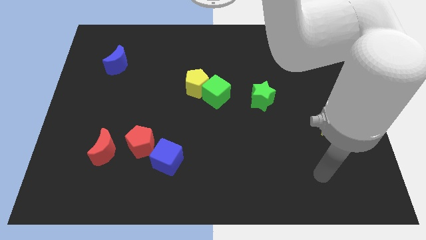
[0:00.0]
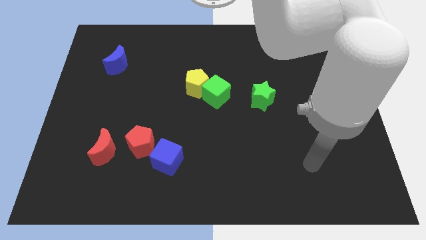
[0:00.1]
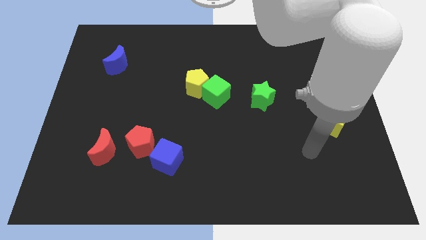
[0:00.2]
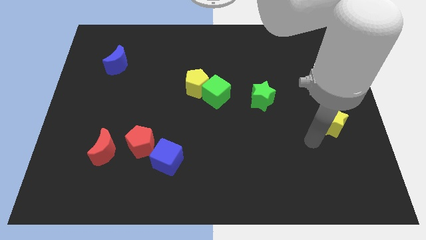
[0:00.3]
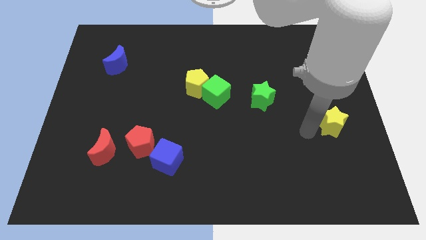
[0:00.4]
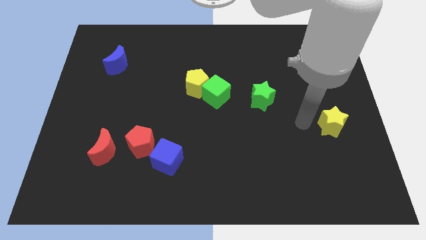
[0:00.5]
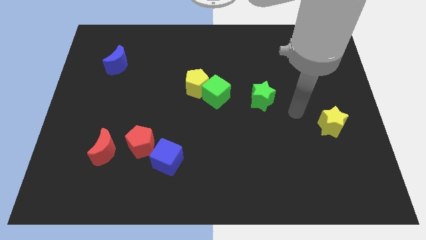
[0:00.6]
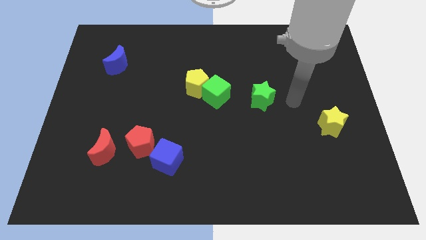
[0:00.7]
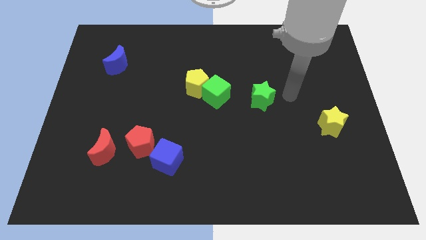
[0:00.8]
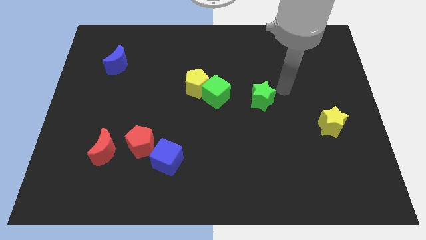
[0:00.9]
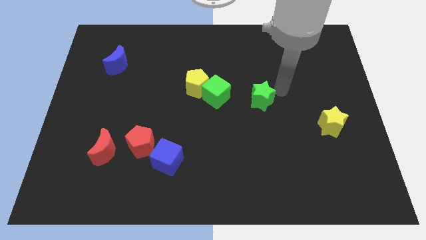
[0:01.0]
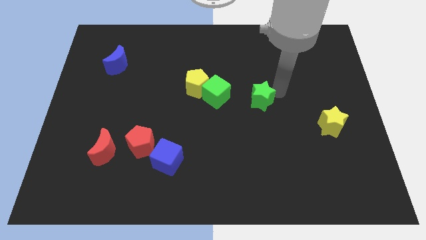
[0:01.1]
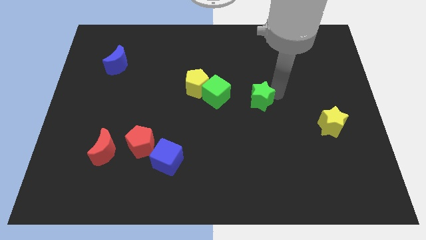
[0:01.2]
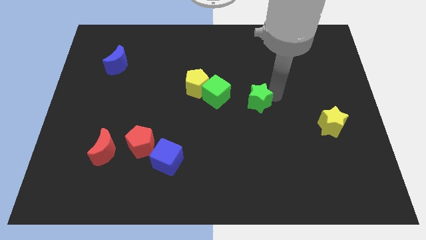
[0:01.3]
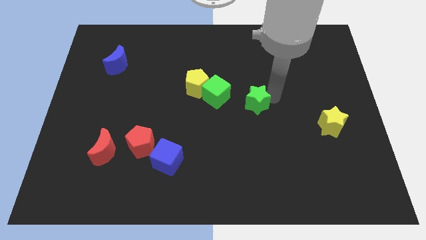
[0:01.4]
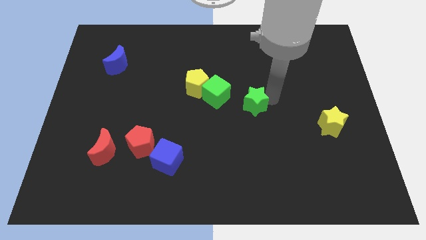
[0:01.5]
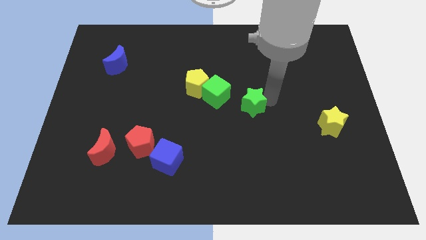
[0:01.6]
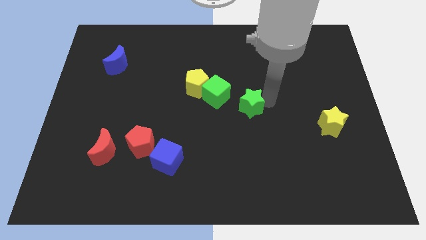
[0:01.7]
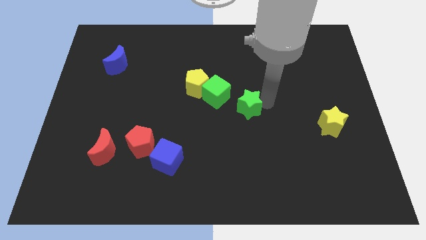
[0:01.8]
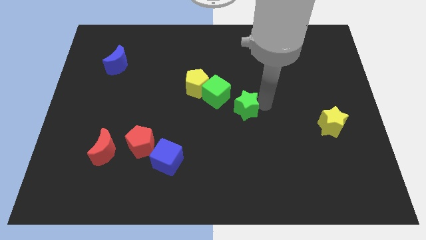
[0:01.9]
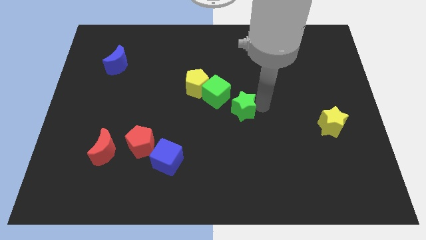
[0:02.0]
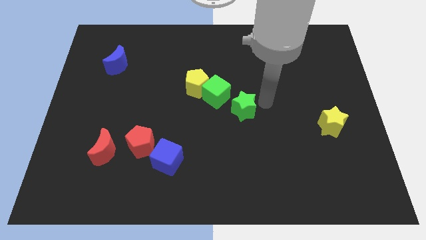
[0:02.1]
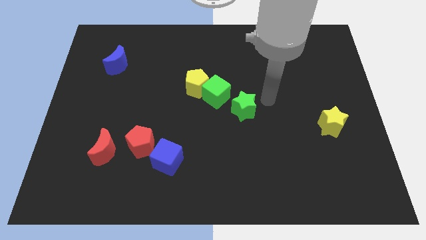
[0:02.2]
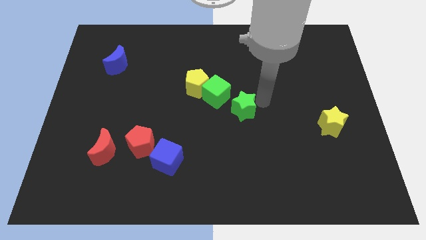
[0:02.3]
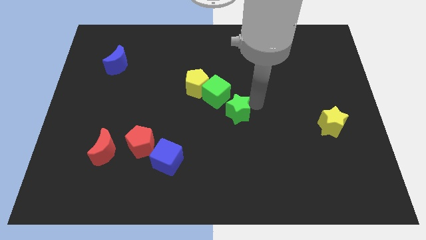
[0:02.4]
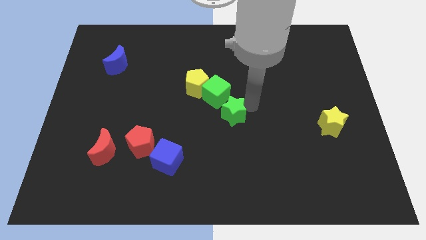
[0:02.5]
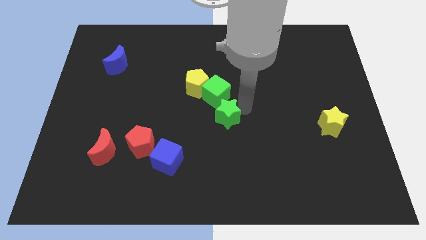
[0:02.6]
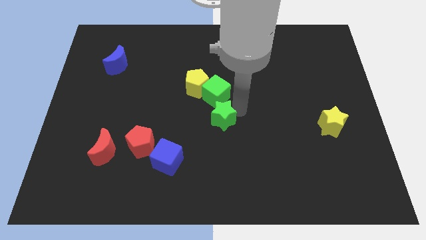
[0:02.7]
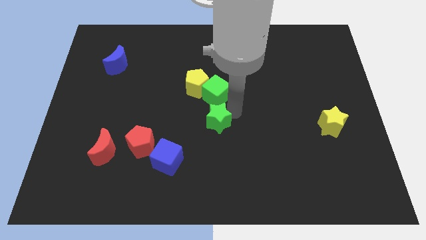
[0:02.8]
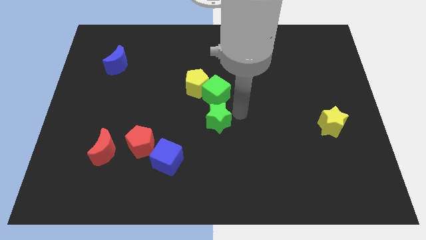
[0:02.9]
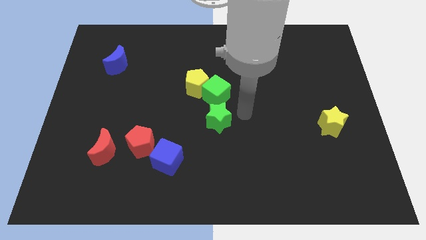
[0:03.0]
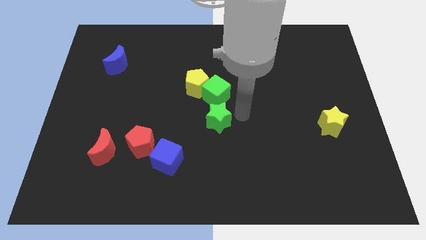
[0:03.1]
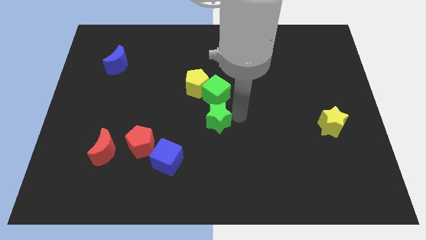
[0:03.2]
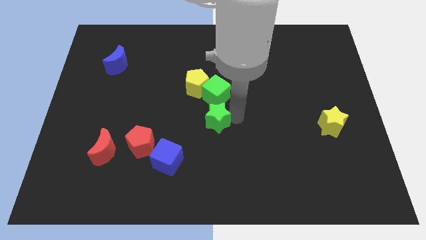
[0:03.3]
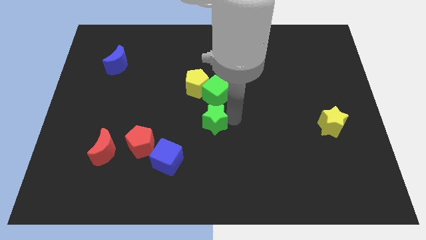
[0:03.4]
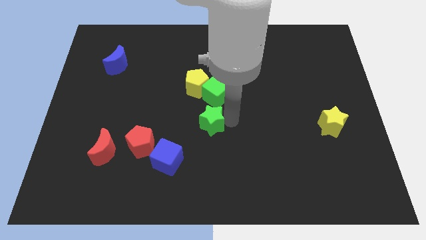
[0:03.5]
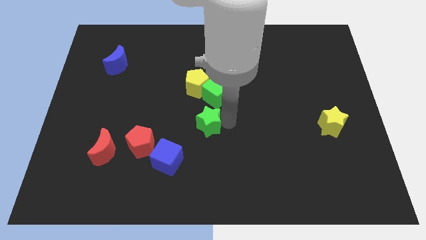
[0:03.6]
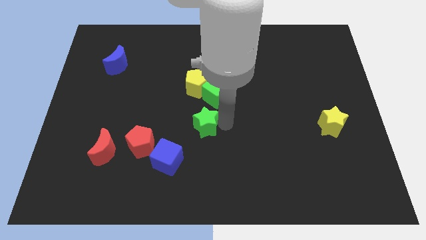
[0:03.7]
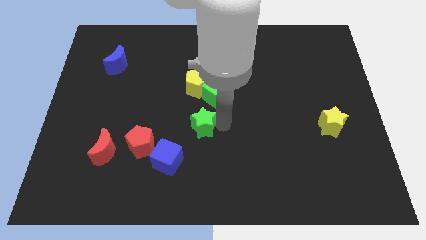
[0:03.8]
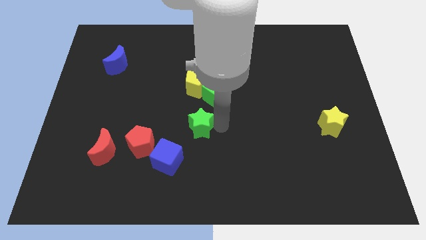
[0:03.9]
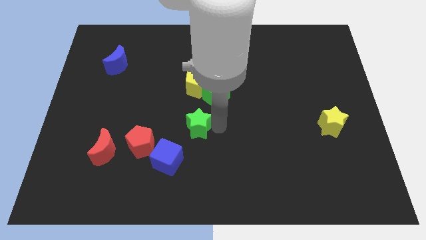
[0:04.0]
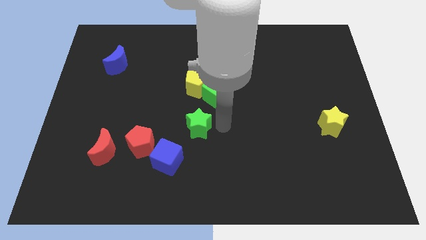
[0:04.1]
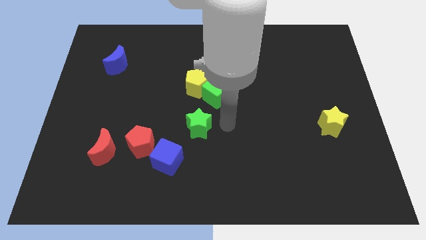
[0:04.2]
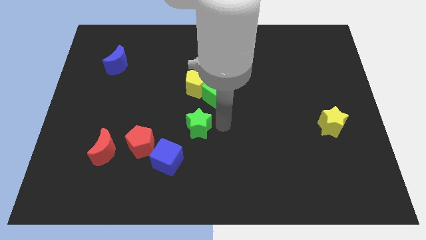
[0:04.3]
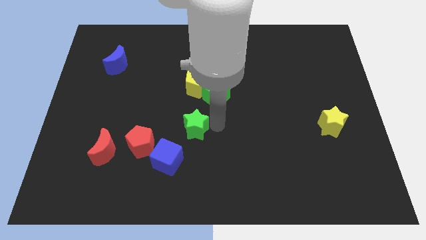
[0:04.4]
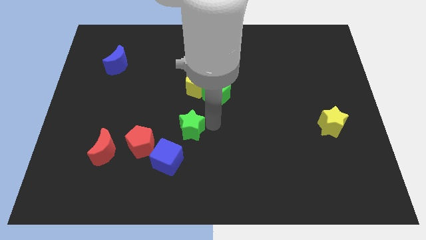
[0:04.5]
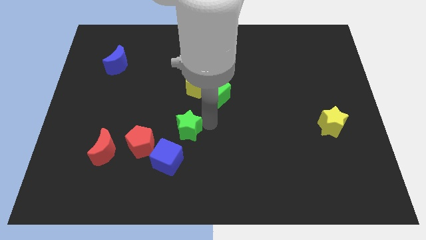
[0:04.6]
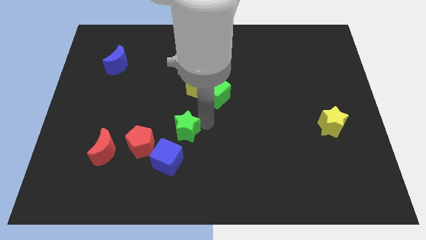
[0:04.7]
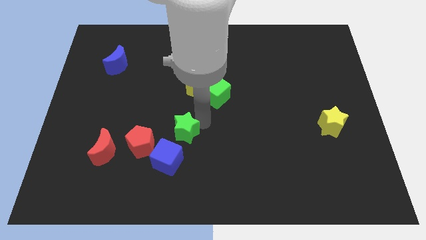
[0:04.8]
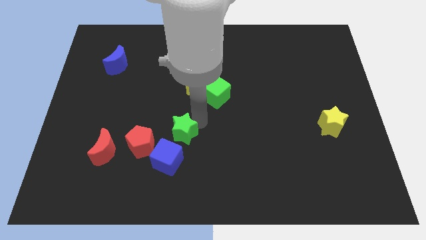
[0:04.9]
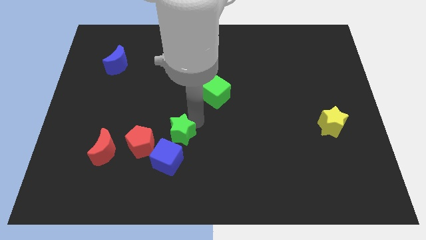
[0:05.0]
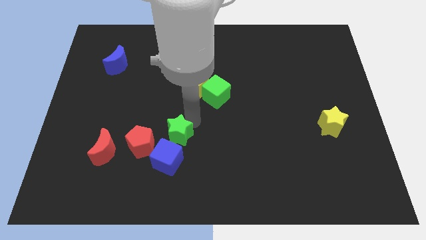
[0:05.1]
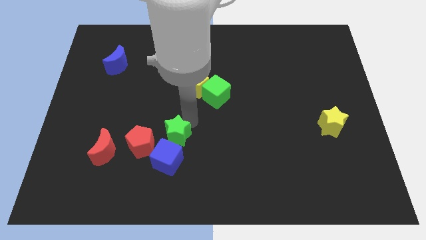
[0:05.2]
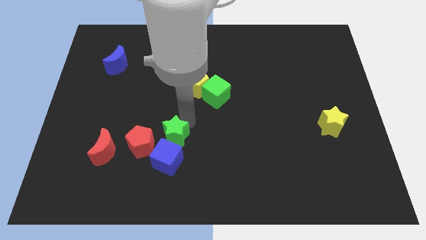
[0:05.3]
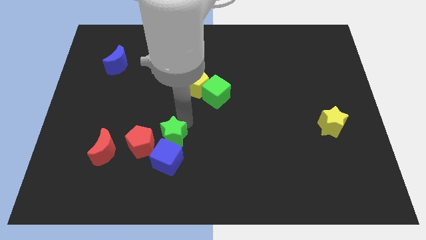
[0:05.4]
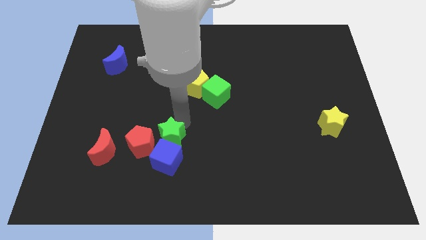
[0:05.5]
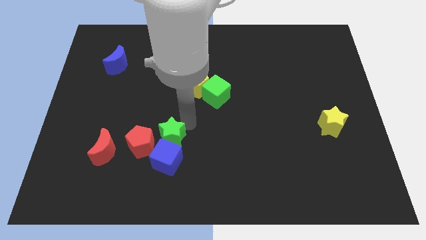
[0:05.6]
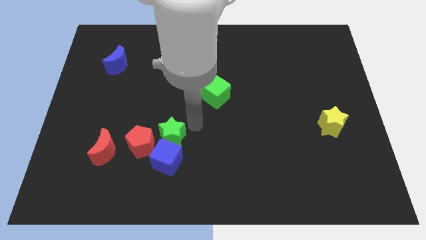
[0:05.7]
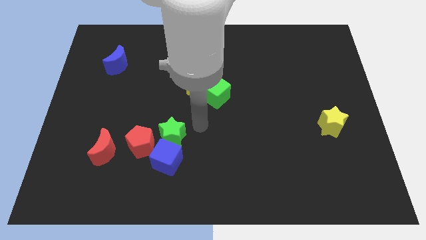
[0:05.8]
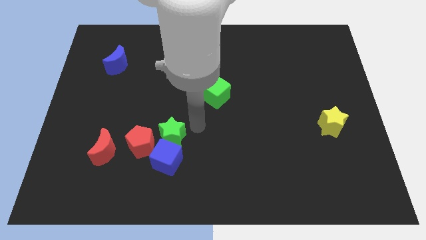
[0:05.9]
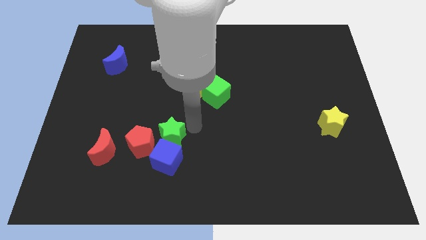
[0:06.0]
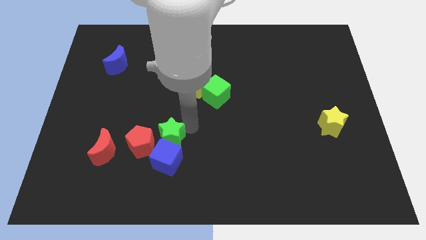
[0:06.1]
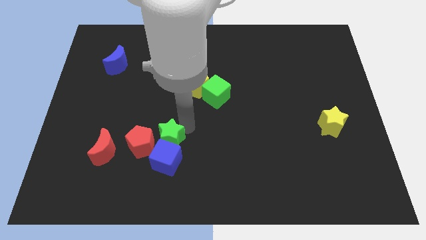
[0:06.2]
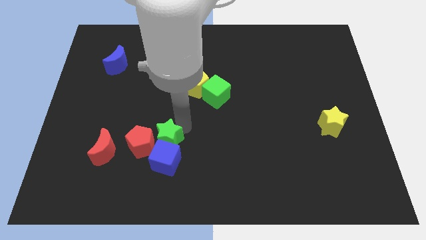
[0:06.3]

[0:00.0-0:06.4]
move the green star towards the red pentagon

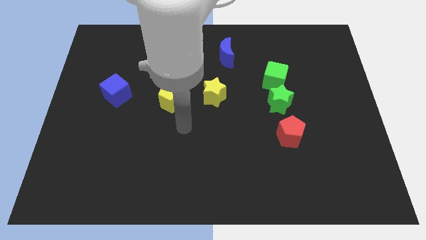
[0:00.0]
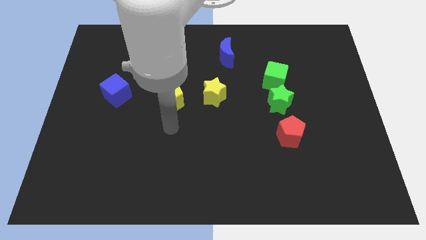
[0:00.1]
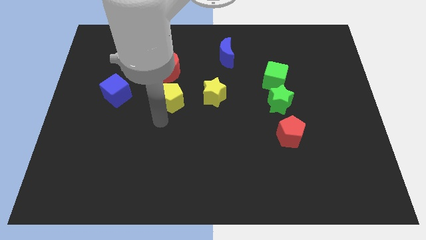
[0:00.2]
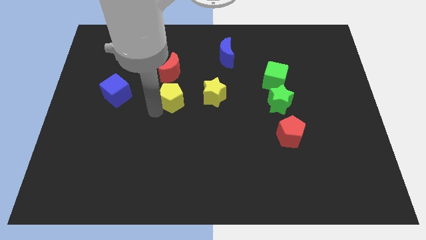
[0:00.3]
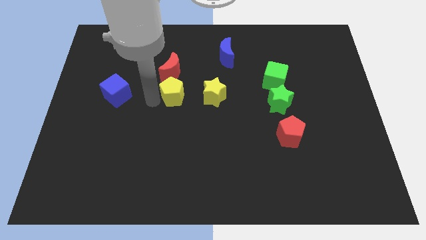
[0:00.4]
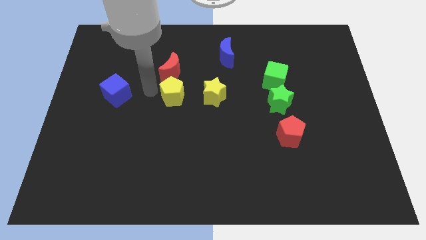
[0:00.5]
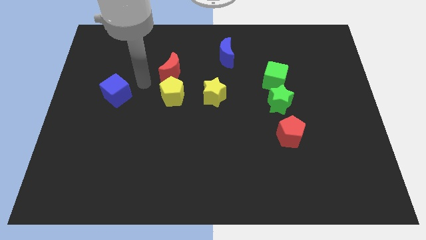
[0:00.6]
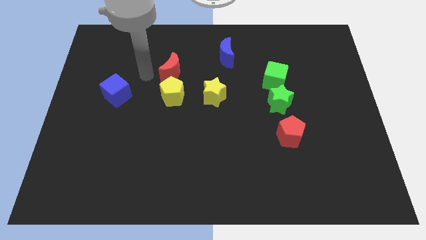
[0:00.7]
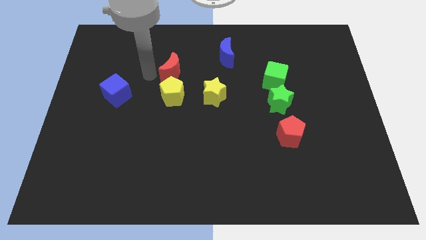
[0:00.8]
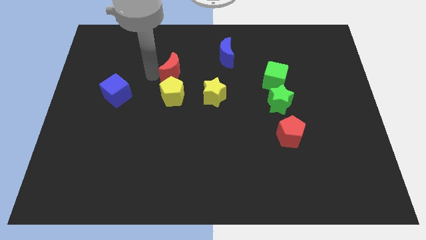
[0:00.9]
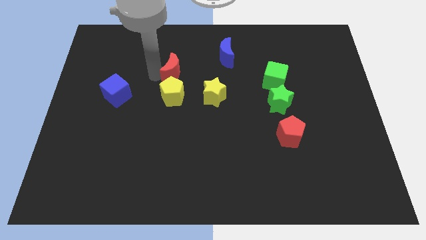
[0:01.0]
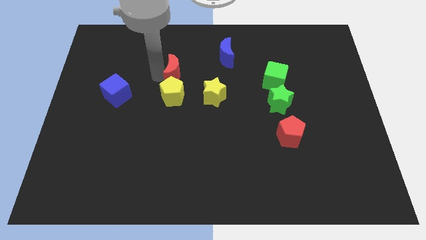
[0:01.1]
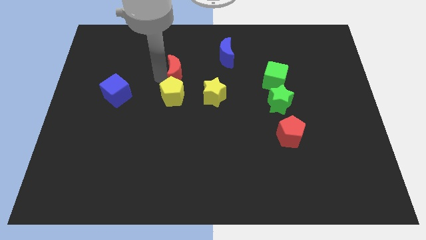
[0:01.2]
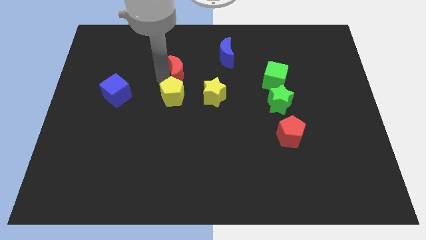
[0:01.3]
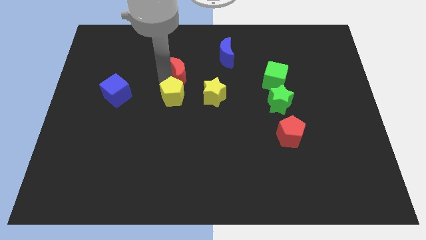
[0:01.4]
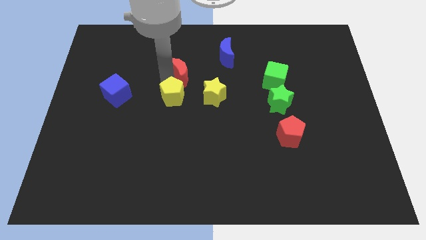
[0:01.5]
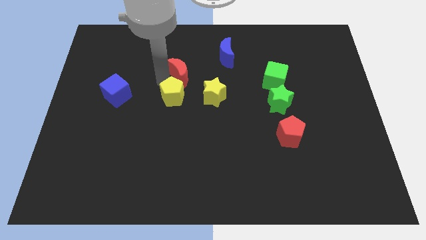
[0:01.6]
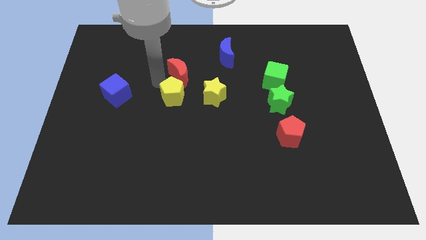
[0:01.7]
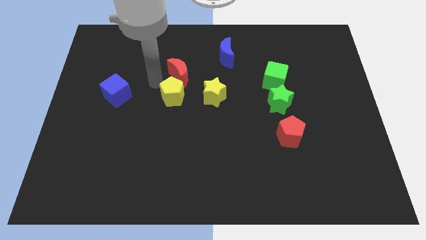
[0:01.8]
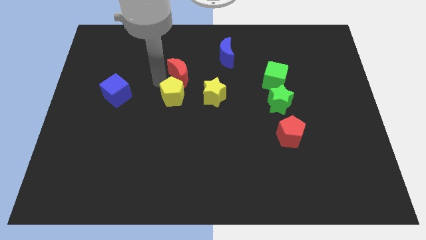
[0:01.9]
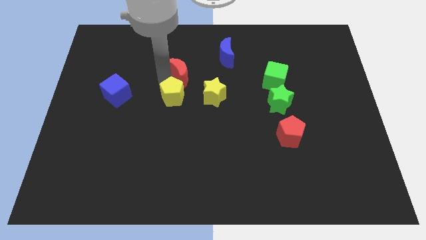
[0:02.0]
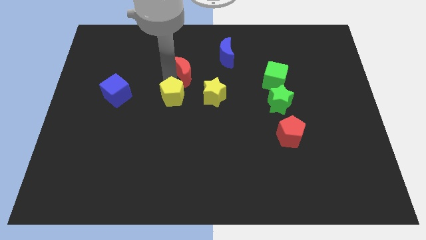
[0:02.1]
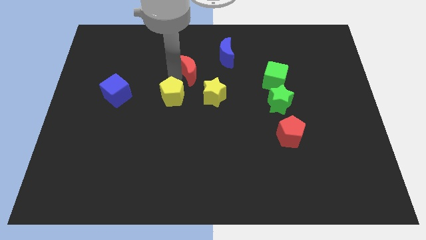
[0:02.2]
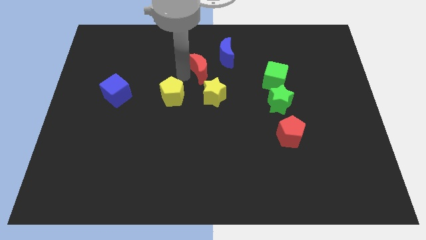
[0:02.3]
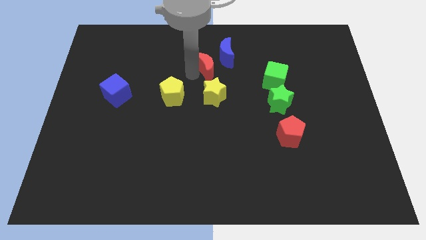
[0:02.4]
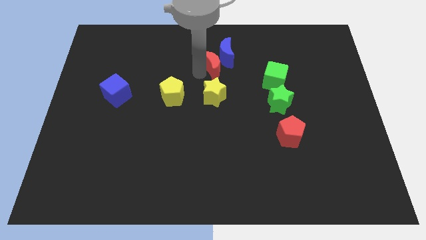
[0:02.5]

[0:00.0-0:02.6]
slide the red moon next to the blue moon
